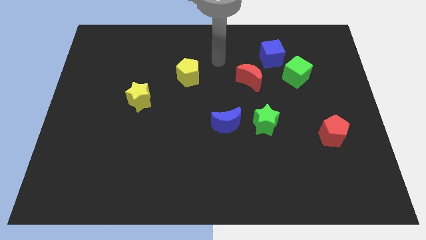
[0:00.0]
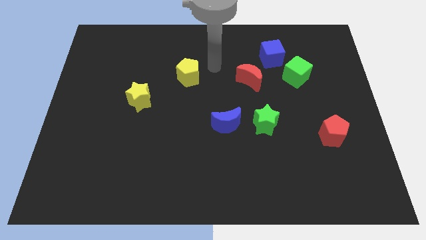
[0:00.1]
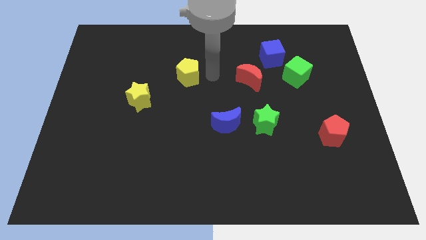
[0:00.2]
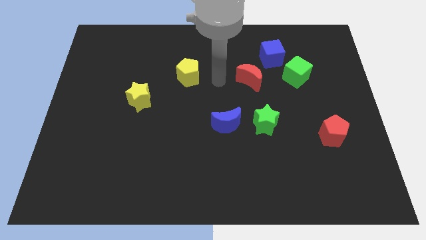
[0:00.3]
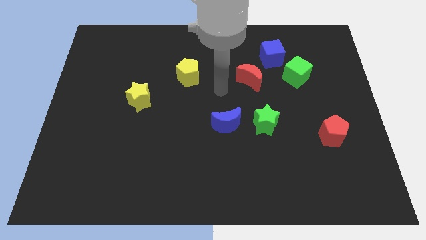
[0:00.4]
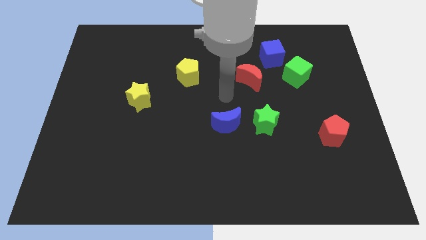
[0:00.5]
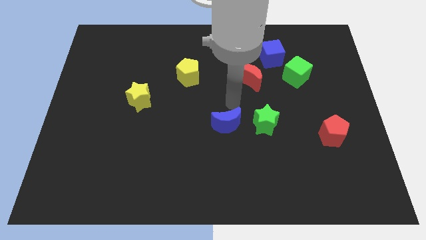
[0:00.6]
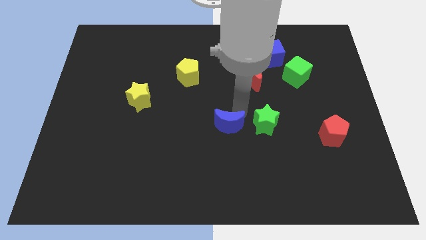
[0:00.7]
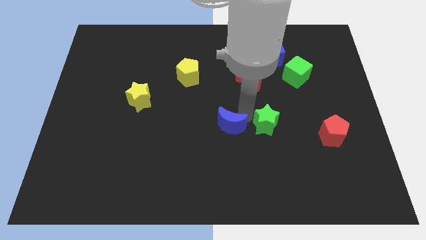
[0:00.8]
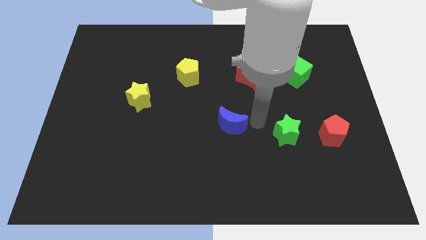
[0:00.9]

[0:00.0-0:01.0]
pull the blue moon apart from the green star

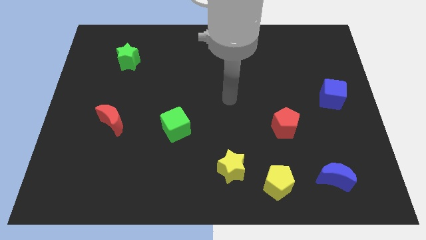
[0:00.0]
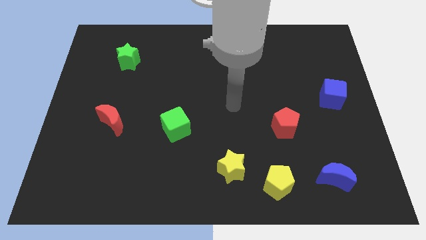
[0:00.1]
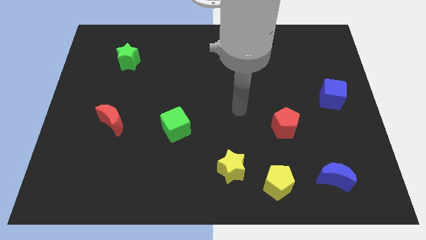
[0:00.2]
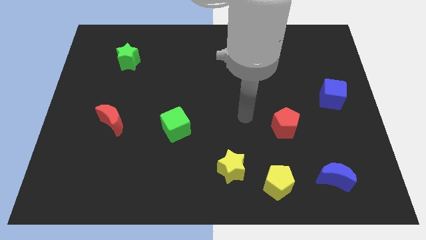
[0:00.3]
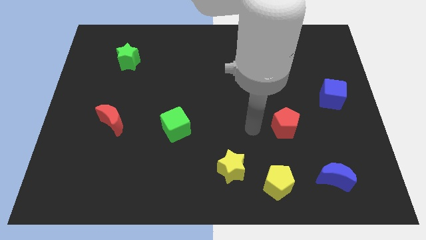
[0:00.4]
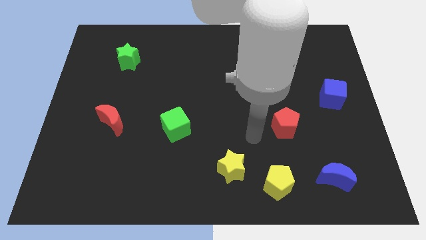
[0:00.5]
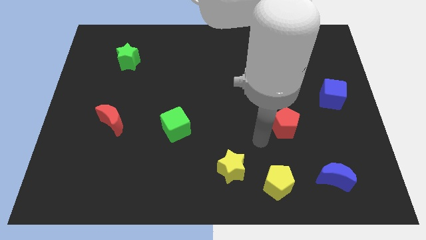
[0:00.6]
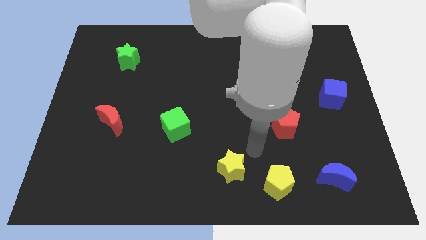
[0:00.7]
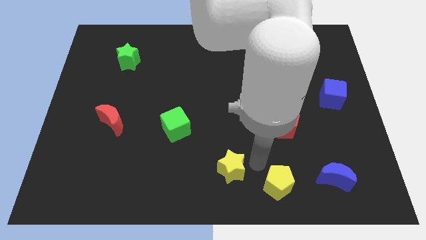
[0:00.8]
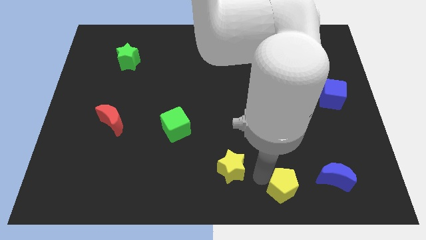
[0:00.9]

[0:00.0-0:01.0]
separate the yellow star from the yellow pentagon

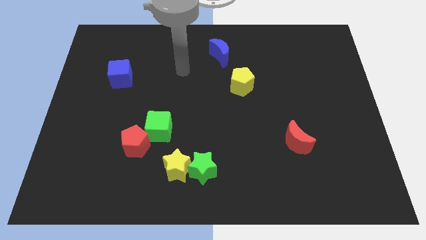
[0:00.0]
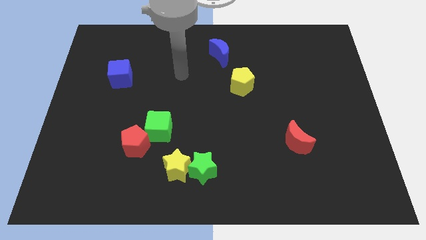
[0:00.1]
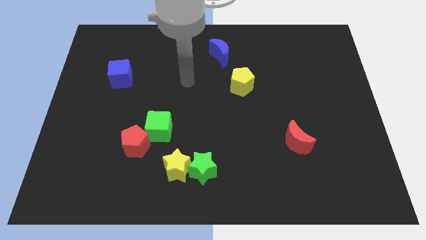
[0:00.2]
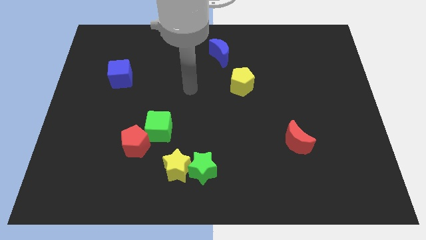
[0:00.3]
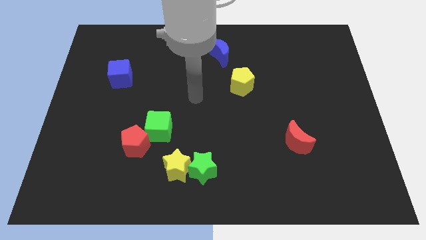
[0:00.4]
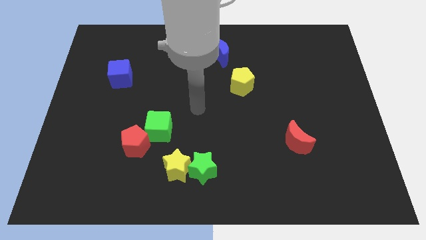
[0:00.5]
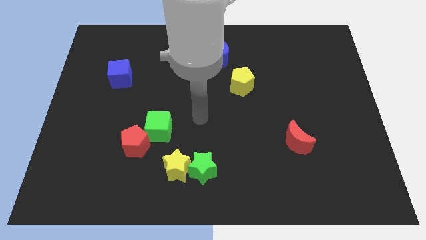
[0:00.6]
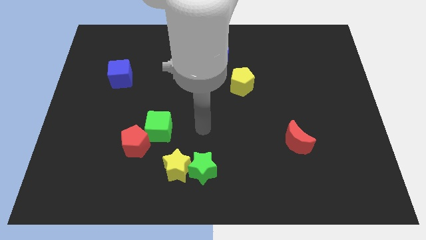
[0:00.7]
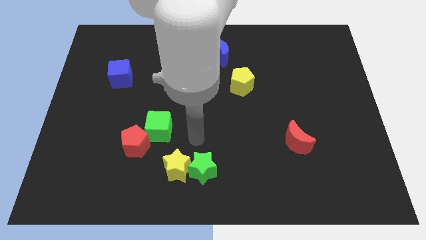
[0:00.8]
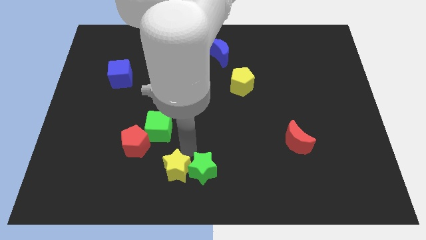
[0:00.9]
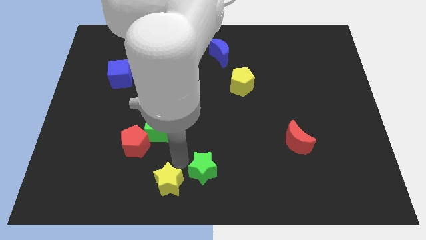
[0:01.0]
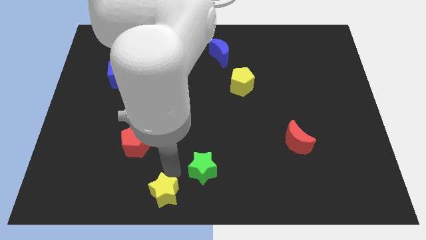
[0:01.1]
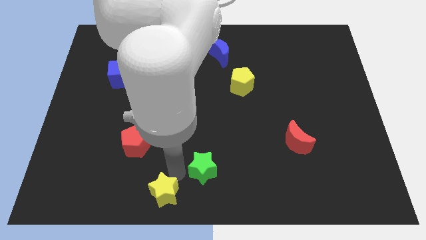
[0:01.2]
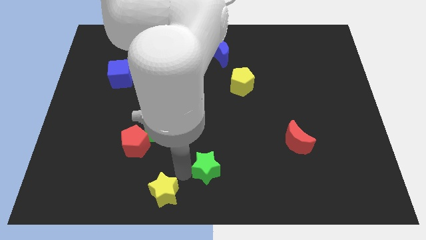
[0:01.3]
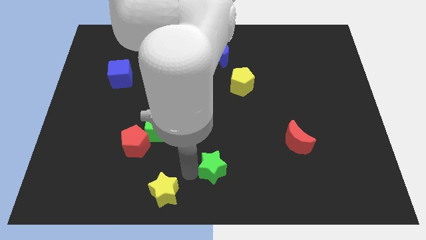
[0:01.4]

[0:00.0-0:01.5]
move the green star away from the yellow star

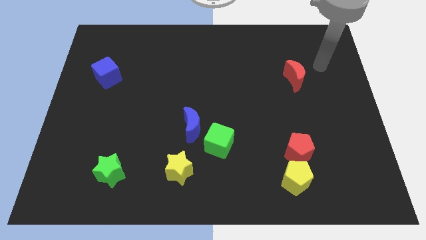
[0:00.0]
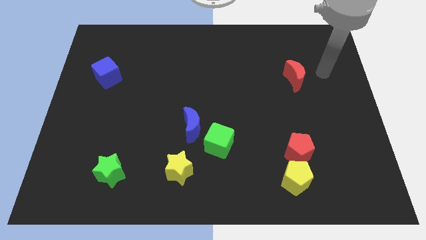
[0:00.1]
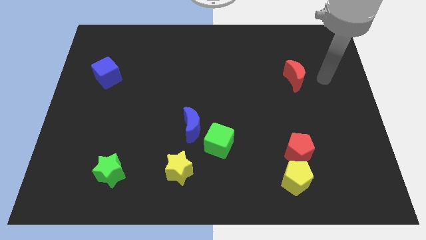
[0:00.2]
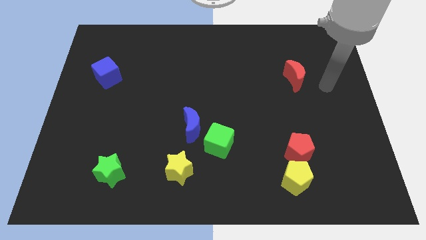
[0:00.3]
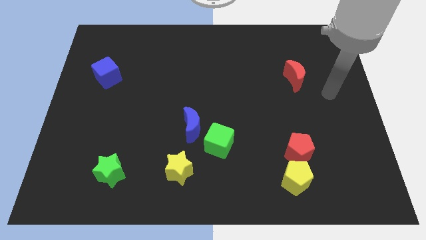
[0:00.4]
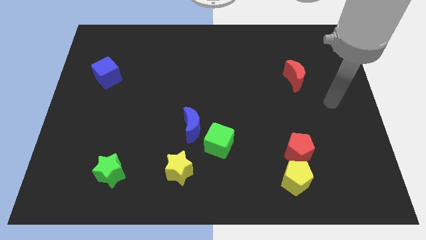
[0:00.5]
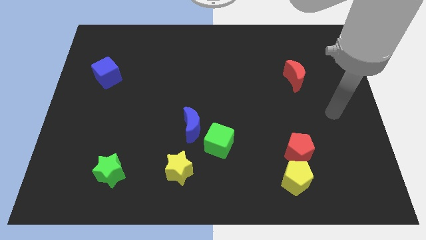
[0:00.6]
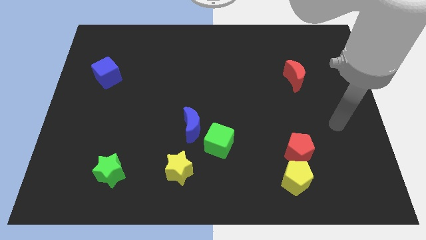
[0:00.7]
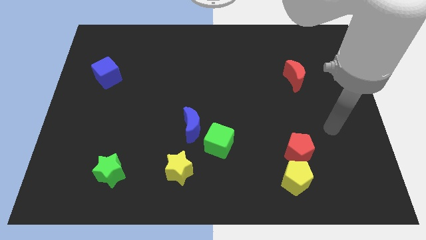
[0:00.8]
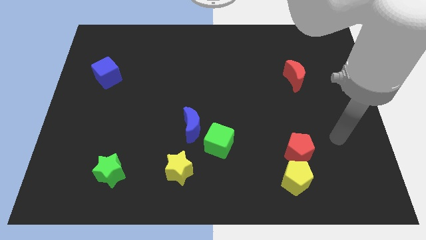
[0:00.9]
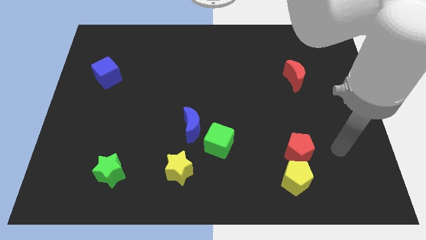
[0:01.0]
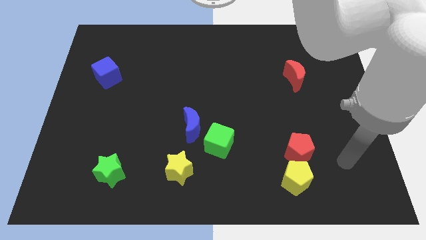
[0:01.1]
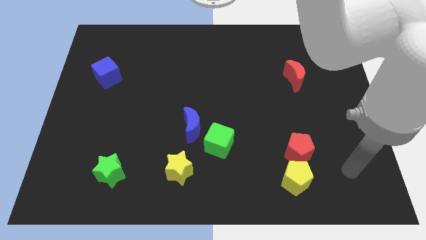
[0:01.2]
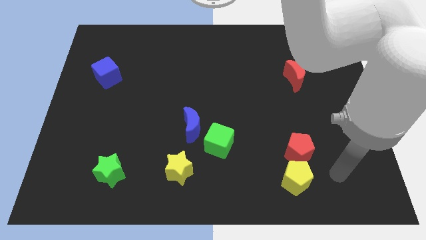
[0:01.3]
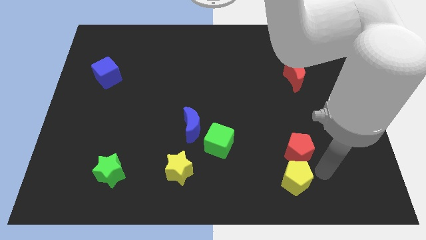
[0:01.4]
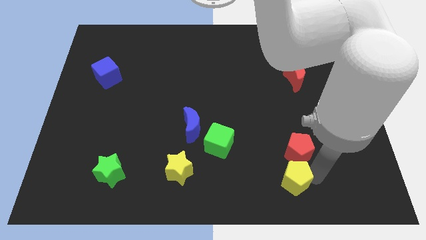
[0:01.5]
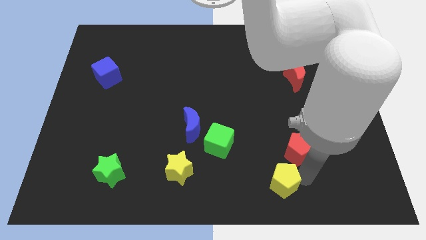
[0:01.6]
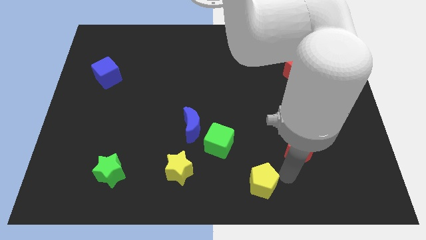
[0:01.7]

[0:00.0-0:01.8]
move the red pentagon away from the yellow pentagon

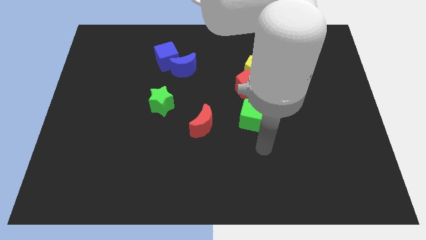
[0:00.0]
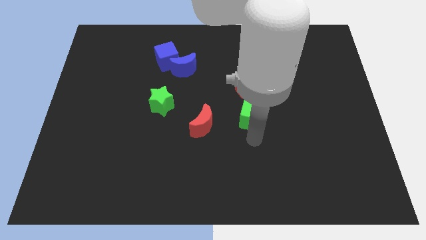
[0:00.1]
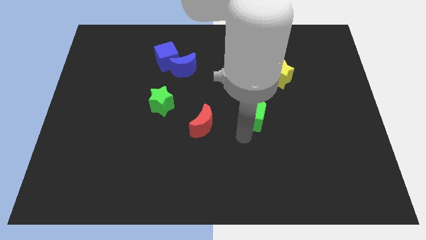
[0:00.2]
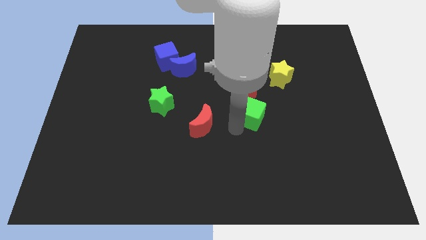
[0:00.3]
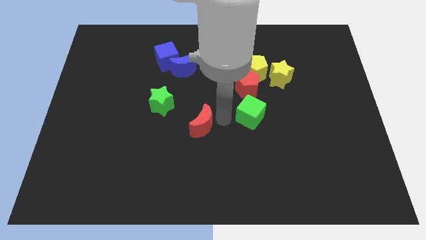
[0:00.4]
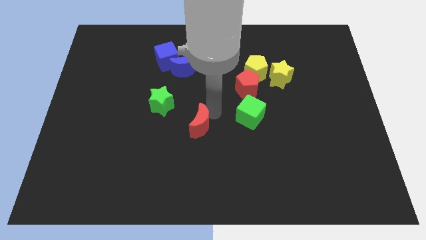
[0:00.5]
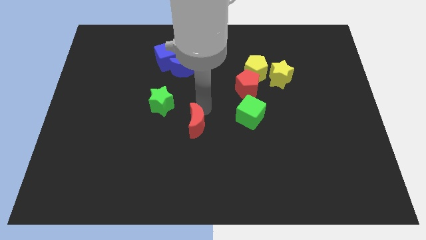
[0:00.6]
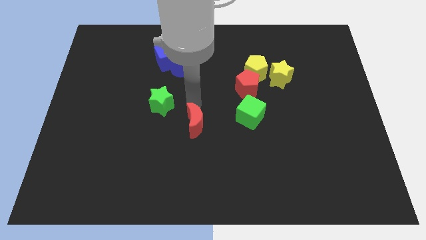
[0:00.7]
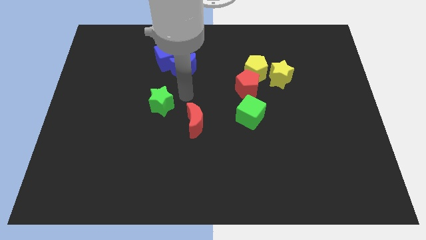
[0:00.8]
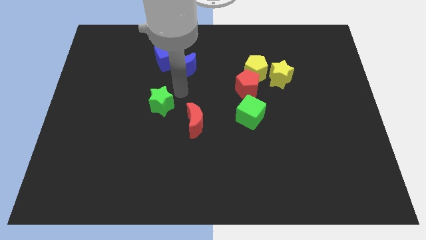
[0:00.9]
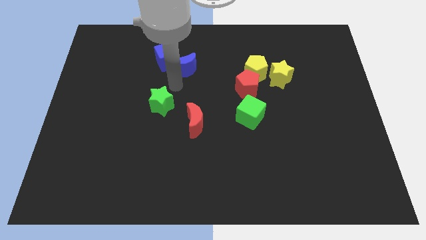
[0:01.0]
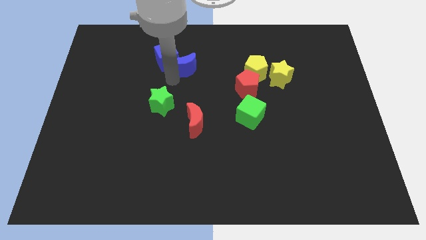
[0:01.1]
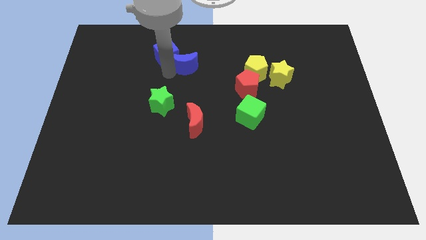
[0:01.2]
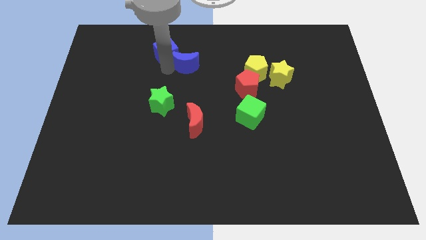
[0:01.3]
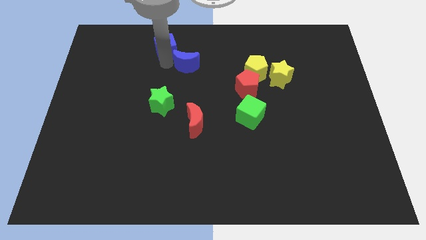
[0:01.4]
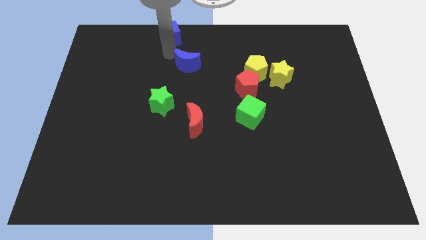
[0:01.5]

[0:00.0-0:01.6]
move the blue moon away from the blue cube

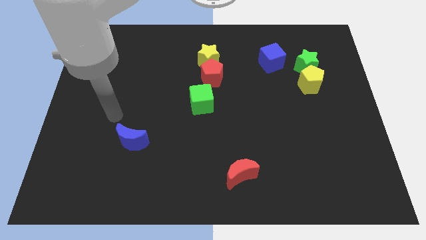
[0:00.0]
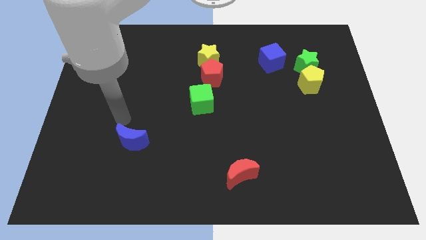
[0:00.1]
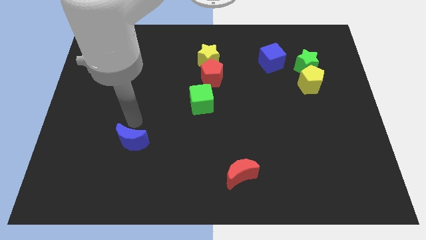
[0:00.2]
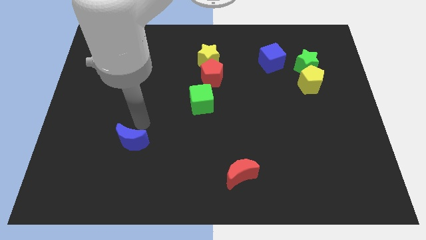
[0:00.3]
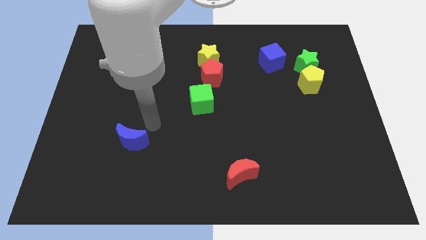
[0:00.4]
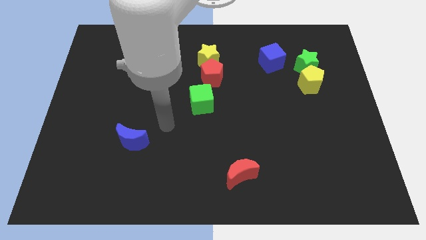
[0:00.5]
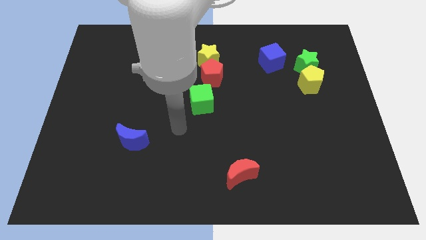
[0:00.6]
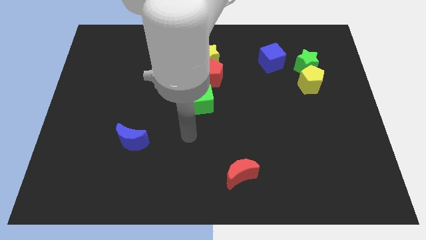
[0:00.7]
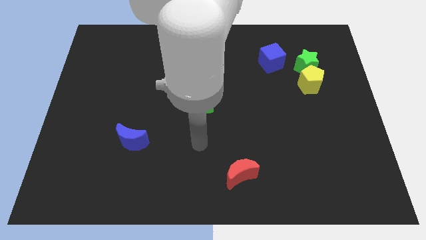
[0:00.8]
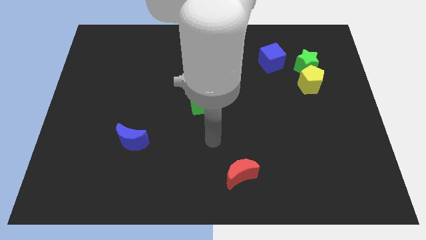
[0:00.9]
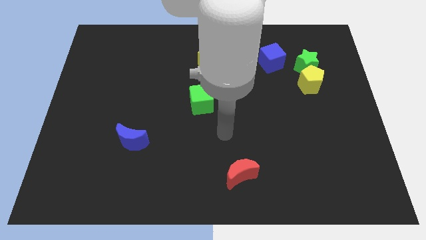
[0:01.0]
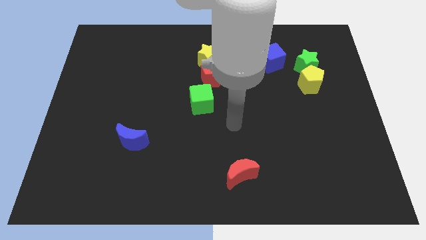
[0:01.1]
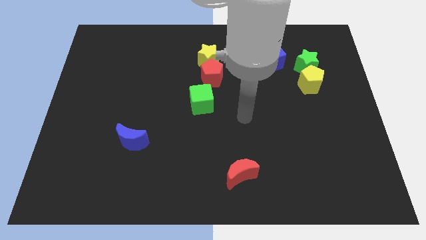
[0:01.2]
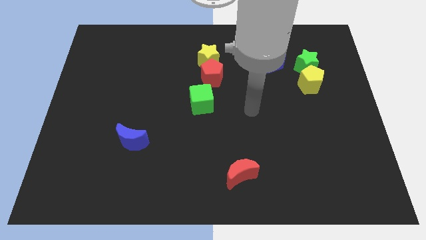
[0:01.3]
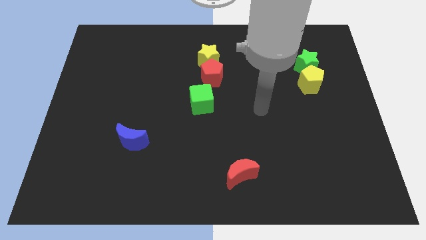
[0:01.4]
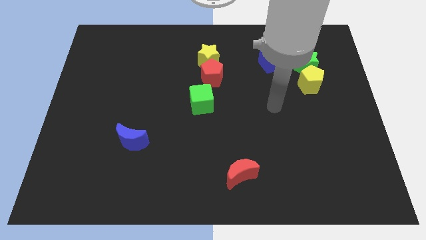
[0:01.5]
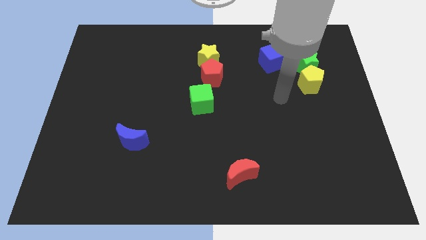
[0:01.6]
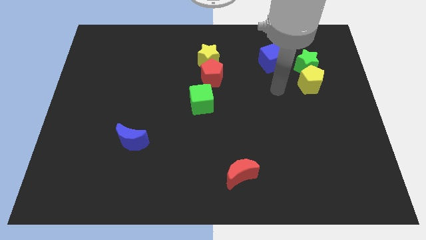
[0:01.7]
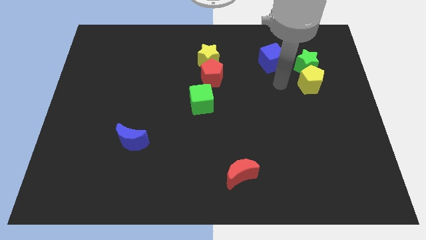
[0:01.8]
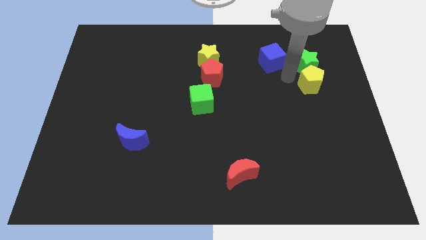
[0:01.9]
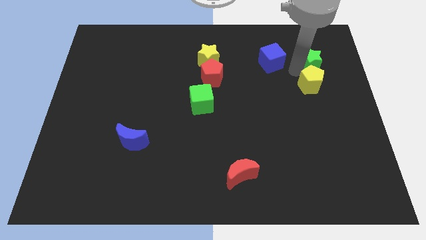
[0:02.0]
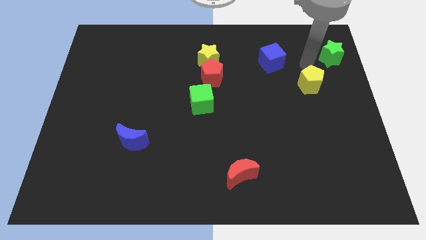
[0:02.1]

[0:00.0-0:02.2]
separate the yellow pentagon from the green star

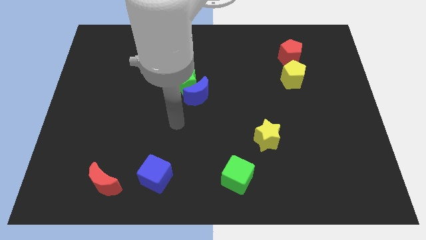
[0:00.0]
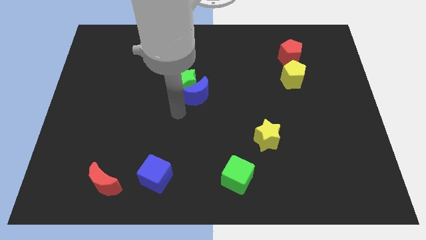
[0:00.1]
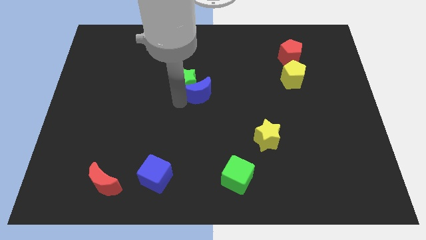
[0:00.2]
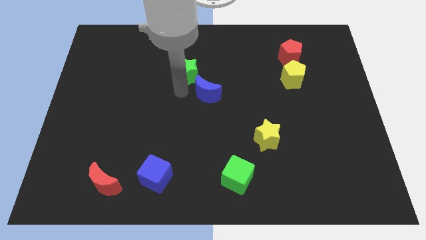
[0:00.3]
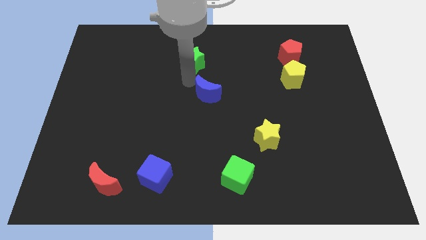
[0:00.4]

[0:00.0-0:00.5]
move the blue moon away from the green star
